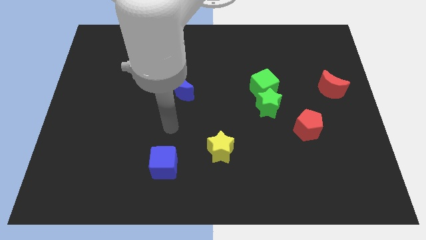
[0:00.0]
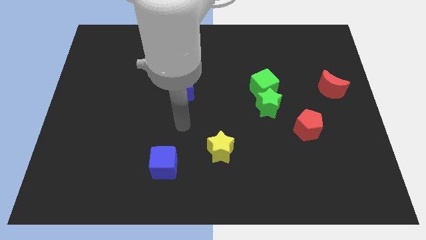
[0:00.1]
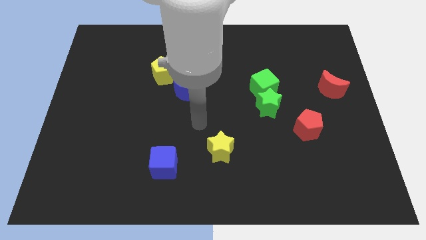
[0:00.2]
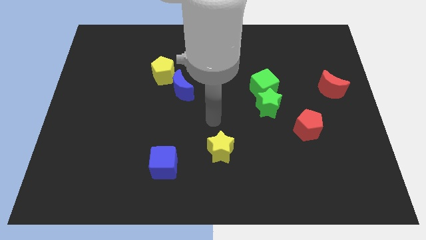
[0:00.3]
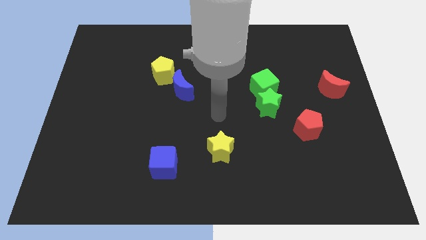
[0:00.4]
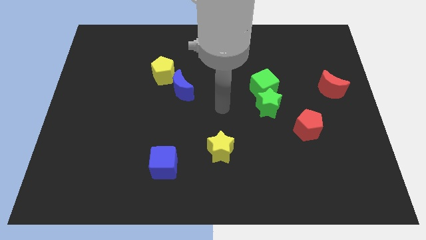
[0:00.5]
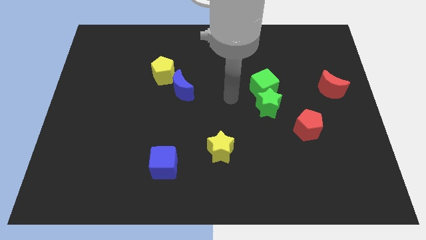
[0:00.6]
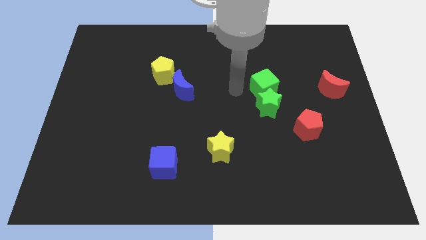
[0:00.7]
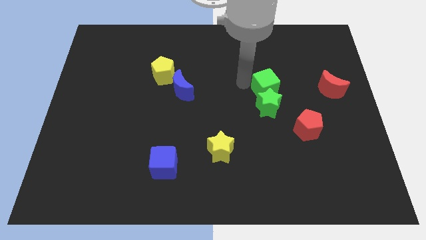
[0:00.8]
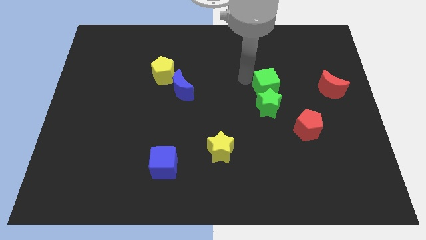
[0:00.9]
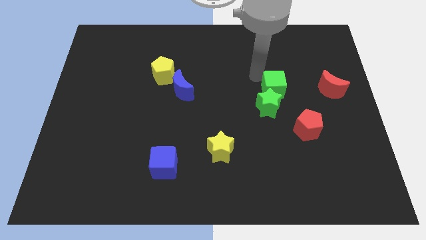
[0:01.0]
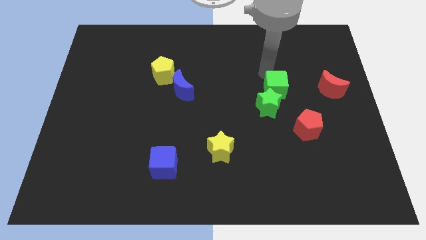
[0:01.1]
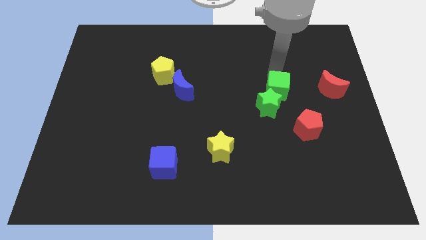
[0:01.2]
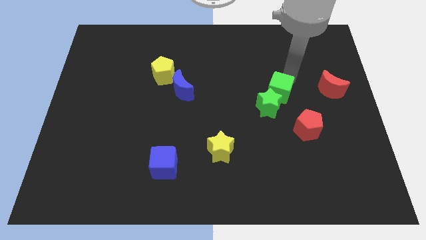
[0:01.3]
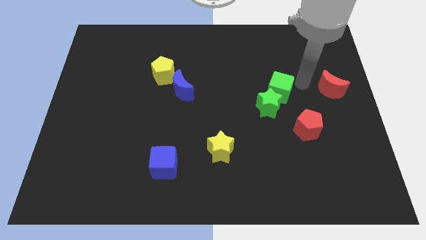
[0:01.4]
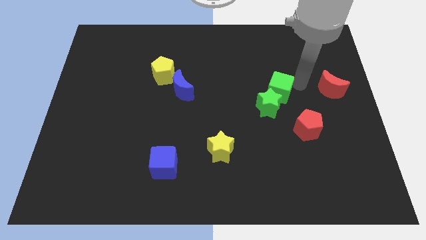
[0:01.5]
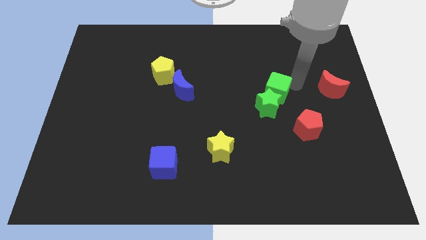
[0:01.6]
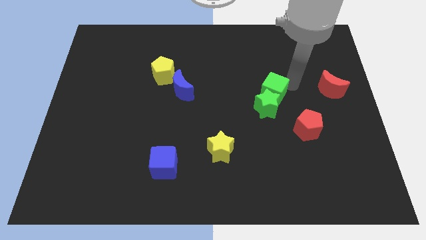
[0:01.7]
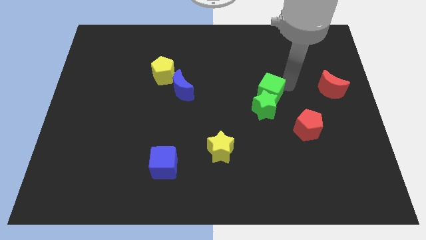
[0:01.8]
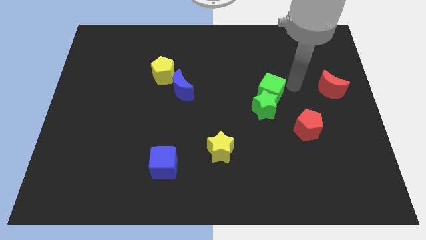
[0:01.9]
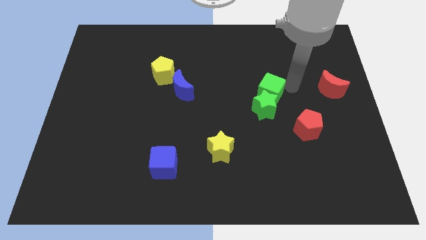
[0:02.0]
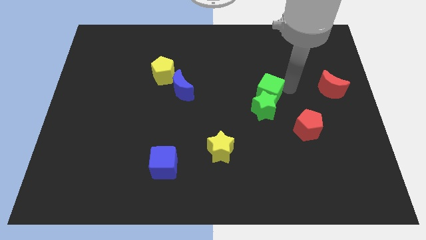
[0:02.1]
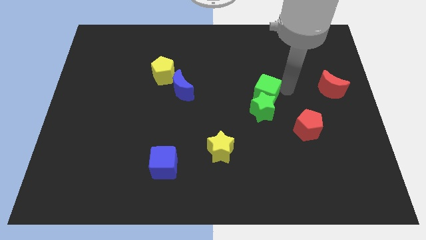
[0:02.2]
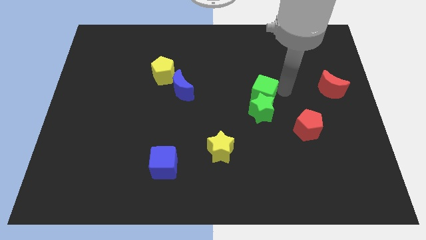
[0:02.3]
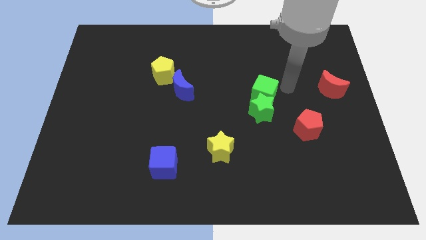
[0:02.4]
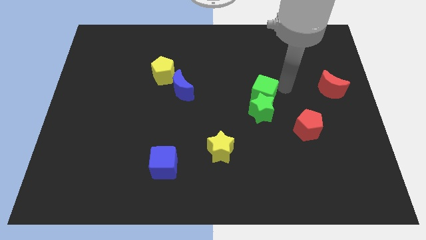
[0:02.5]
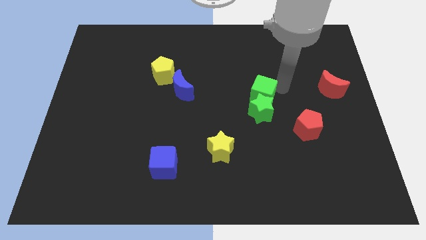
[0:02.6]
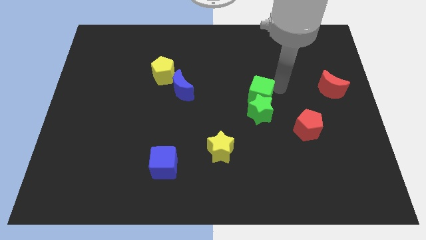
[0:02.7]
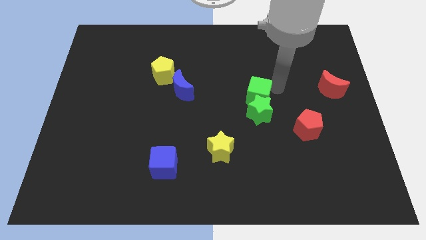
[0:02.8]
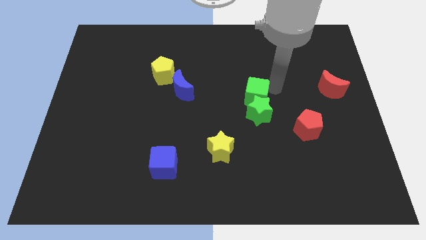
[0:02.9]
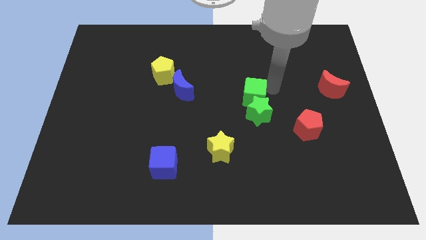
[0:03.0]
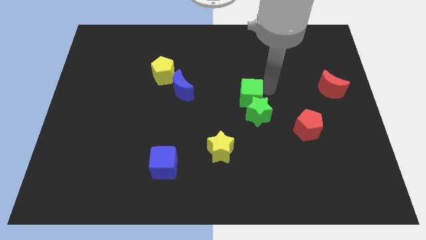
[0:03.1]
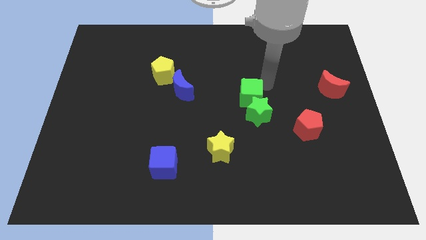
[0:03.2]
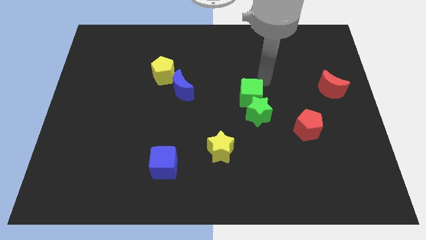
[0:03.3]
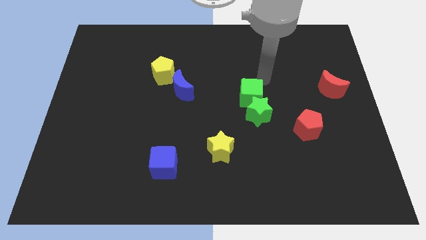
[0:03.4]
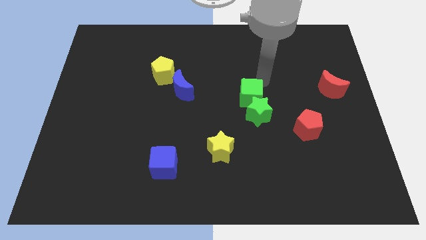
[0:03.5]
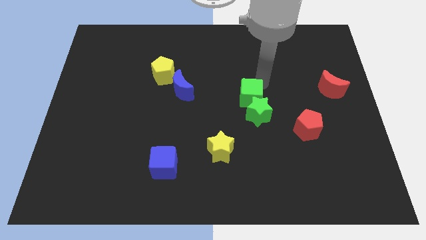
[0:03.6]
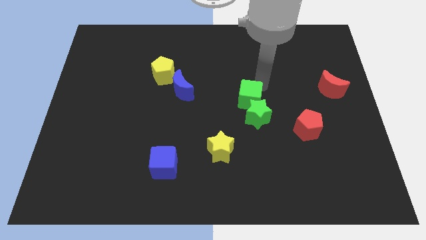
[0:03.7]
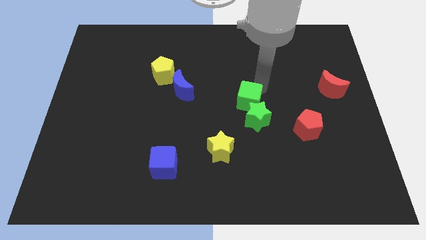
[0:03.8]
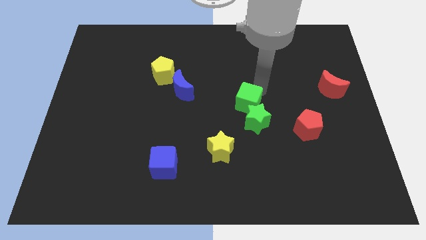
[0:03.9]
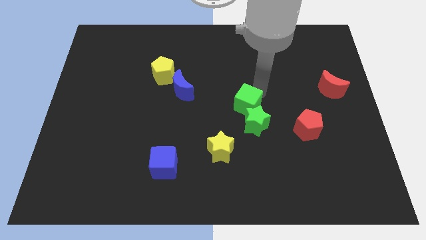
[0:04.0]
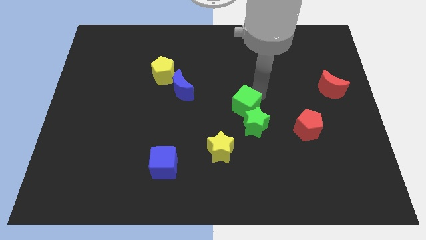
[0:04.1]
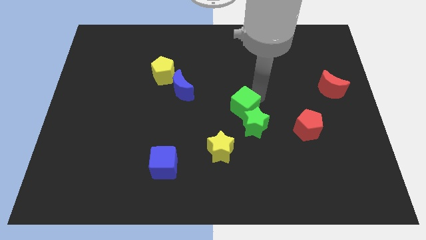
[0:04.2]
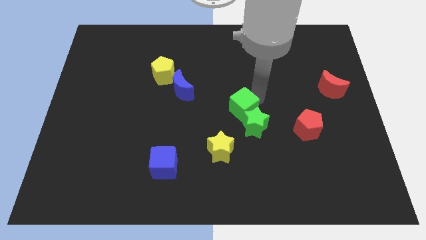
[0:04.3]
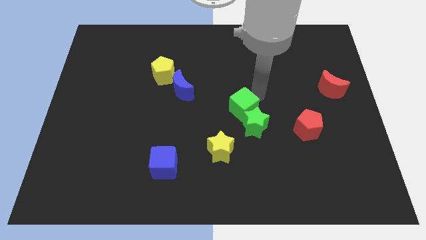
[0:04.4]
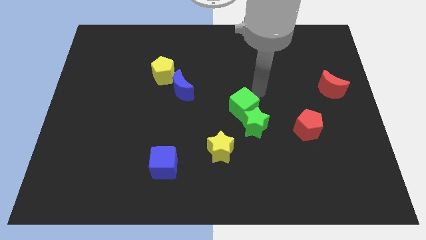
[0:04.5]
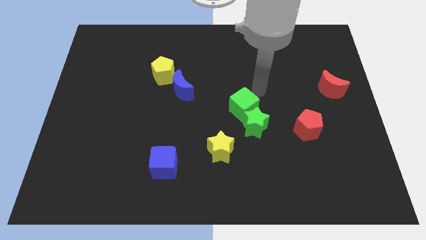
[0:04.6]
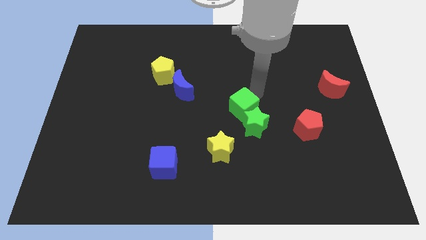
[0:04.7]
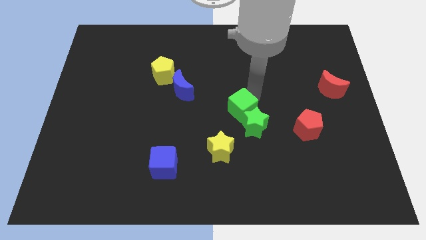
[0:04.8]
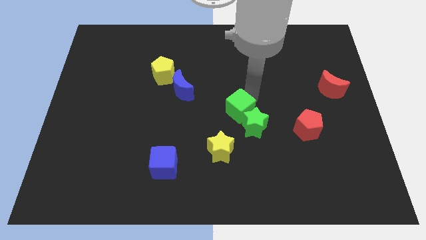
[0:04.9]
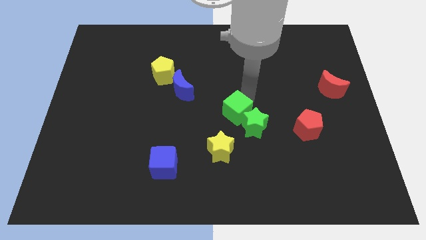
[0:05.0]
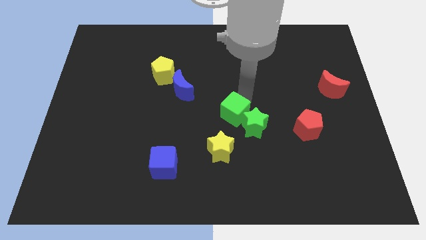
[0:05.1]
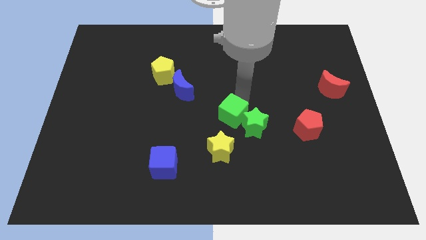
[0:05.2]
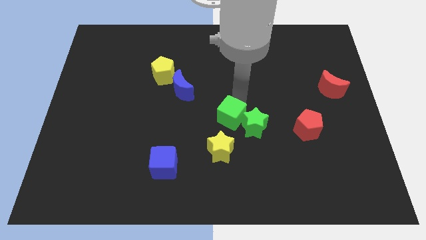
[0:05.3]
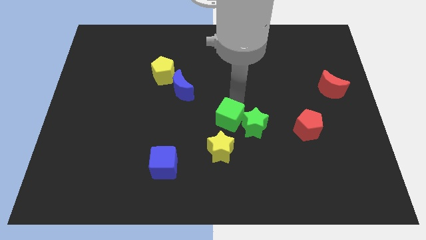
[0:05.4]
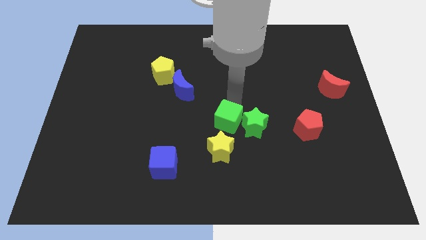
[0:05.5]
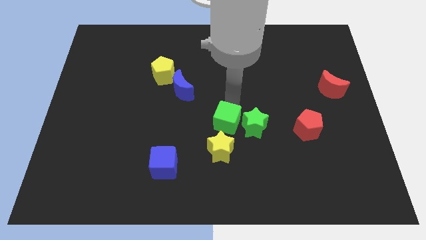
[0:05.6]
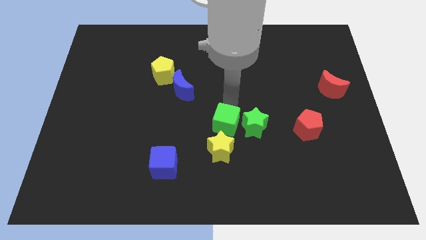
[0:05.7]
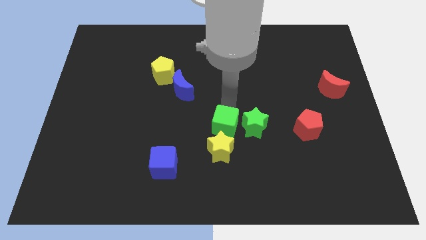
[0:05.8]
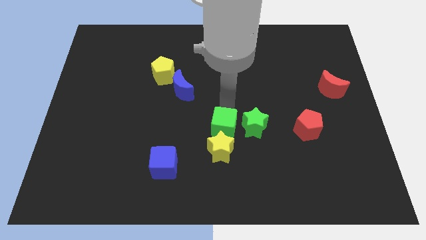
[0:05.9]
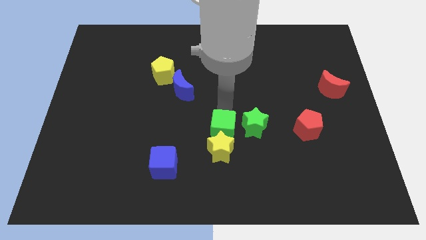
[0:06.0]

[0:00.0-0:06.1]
put the green cube towards the yellow star
